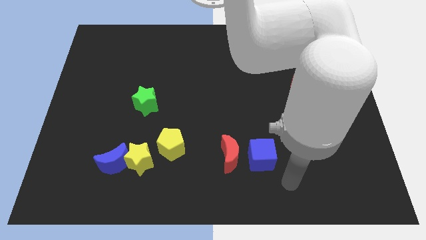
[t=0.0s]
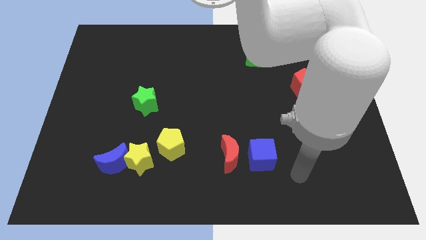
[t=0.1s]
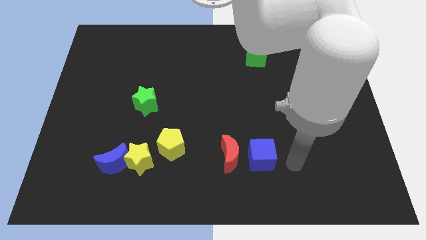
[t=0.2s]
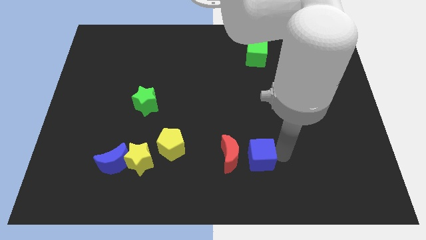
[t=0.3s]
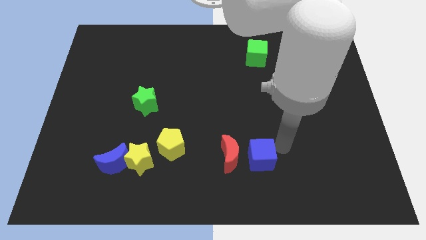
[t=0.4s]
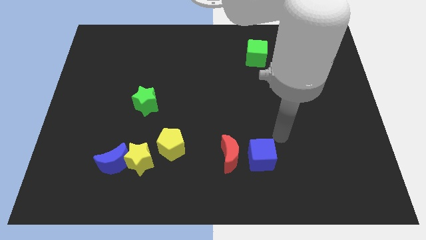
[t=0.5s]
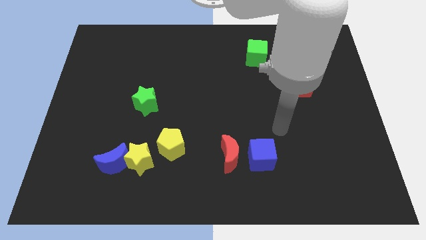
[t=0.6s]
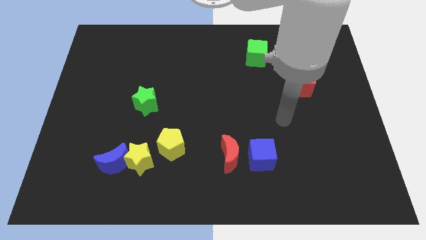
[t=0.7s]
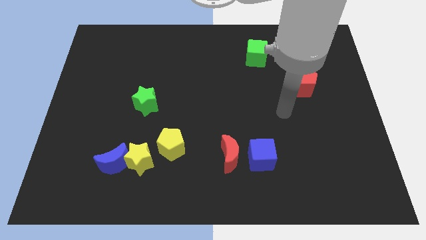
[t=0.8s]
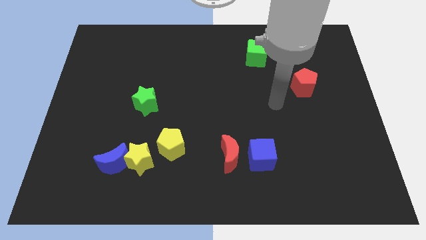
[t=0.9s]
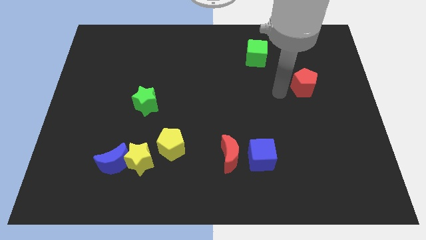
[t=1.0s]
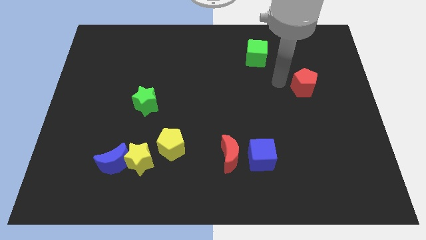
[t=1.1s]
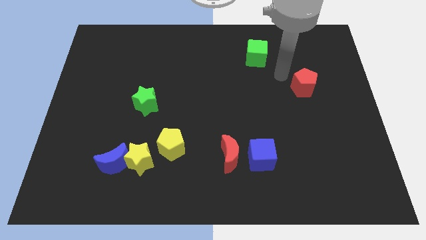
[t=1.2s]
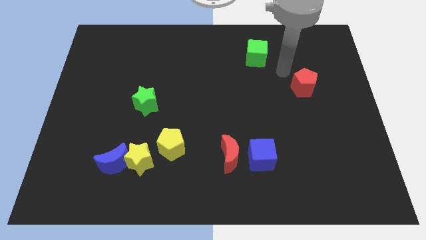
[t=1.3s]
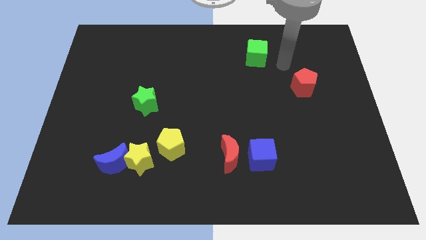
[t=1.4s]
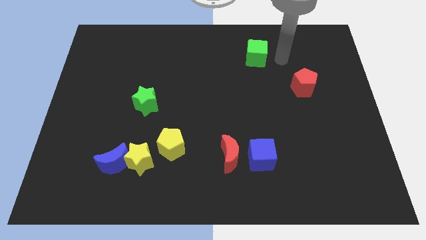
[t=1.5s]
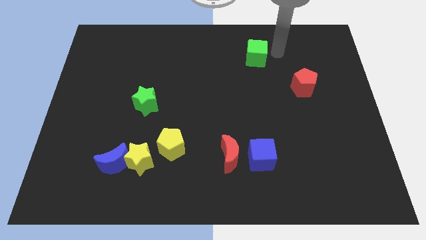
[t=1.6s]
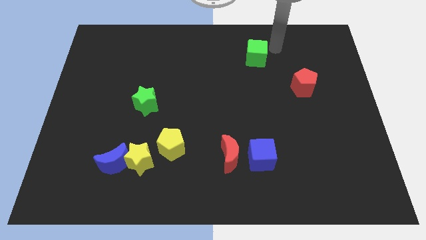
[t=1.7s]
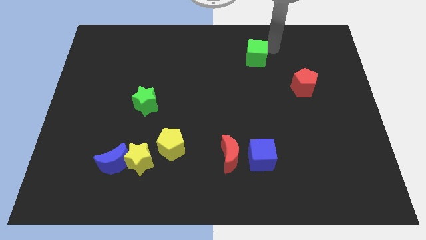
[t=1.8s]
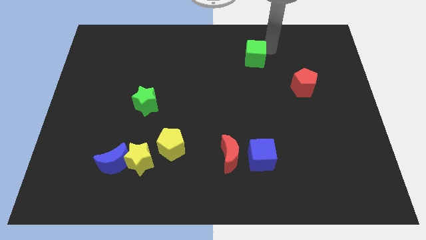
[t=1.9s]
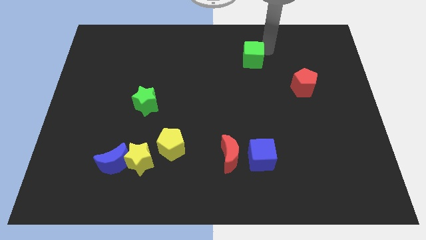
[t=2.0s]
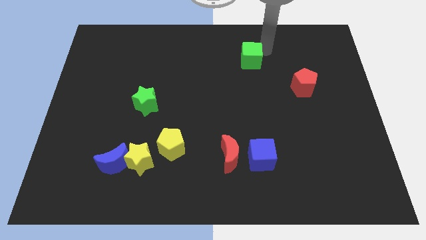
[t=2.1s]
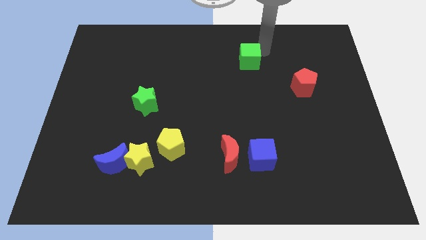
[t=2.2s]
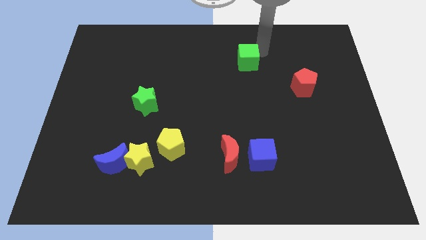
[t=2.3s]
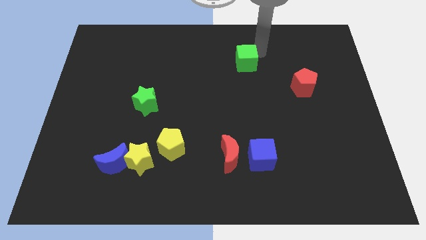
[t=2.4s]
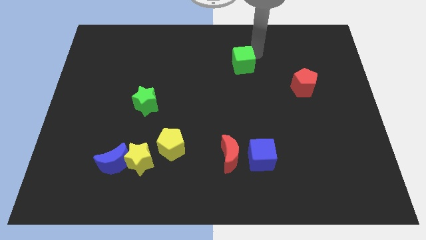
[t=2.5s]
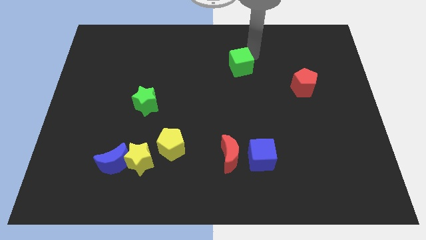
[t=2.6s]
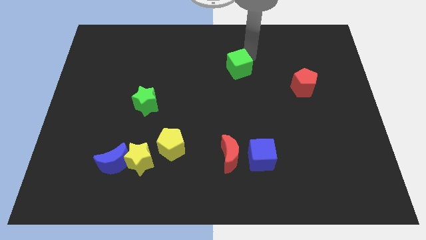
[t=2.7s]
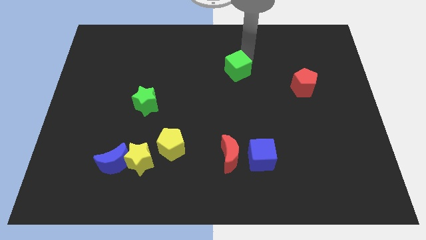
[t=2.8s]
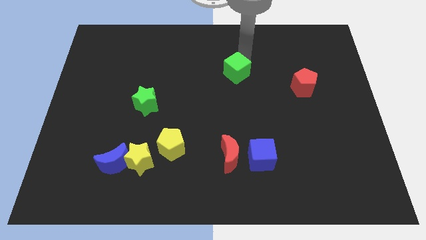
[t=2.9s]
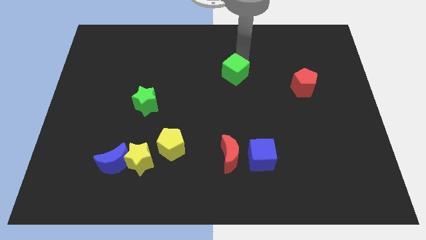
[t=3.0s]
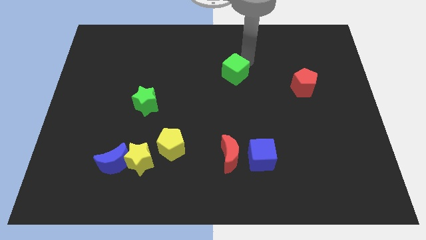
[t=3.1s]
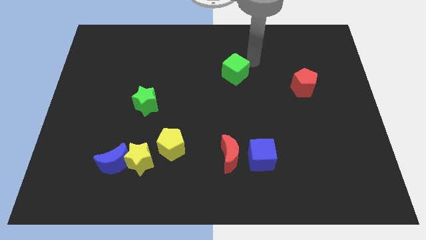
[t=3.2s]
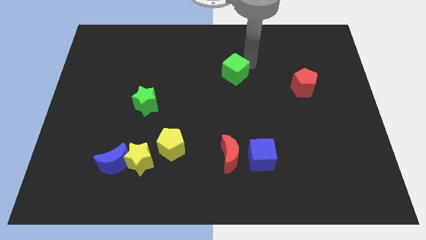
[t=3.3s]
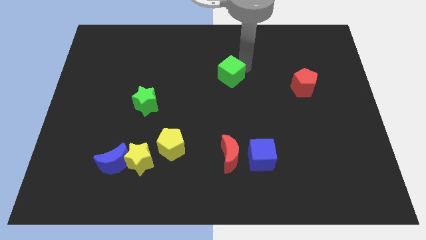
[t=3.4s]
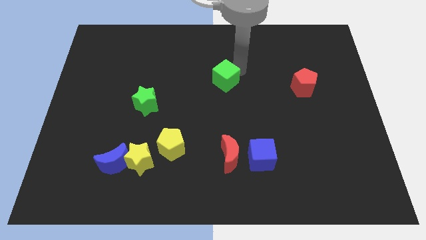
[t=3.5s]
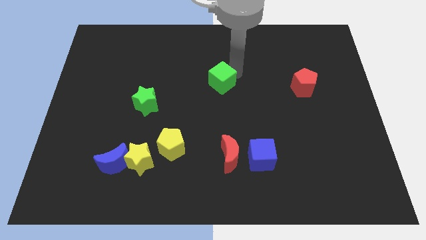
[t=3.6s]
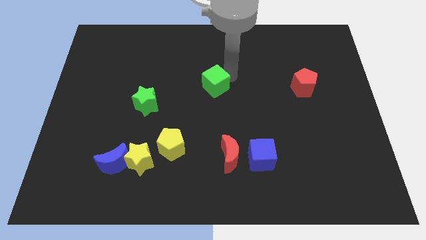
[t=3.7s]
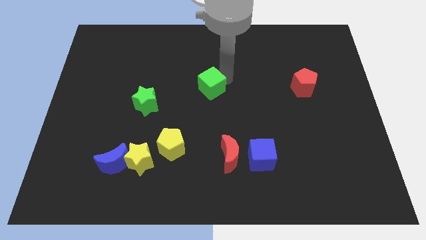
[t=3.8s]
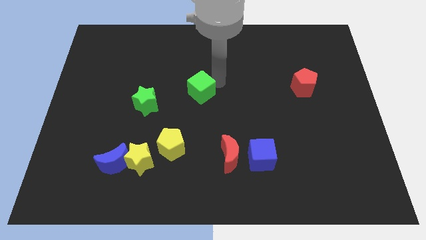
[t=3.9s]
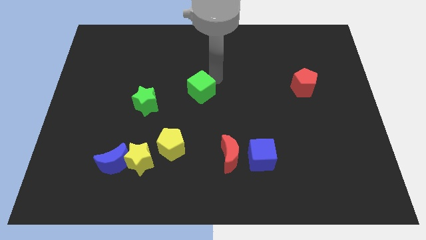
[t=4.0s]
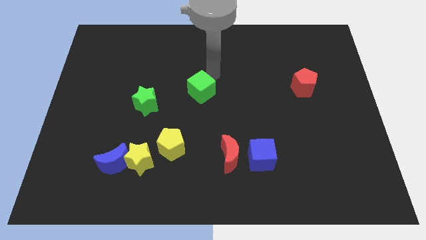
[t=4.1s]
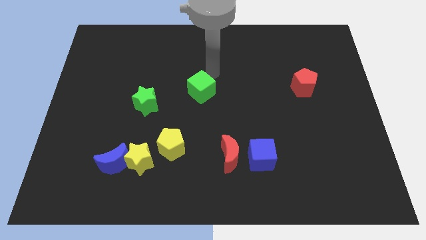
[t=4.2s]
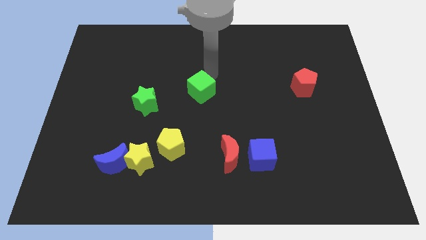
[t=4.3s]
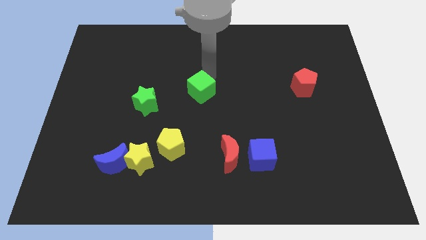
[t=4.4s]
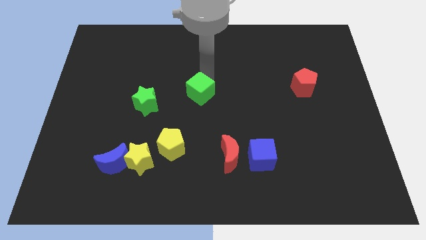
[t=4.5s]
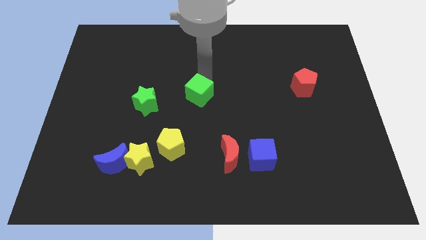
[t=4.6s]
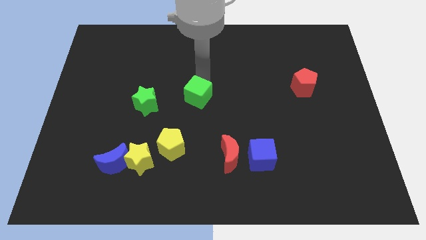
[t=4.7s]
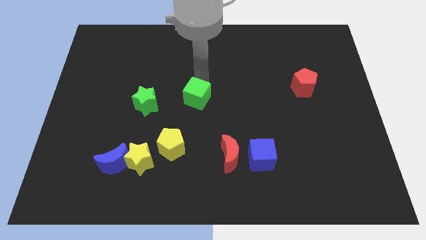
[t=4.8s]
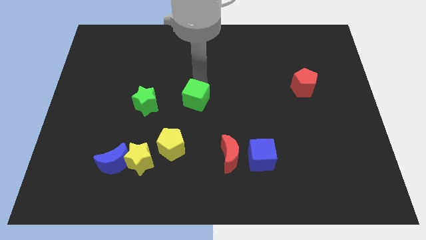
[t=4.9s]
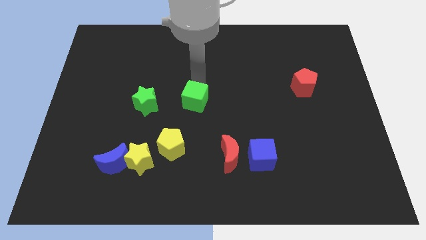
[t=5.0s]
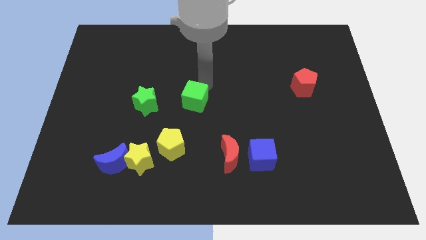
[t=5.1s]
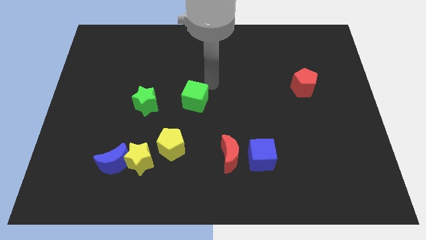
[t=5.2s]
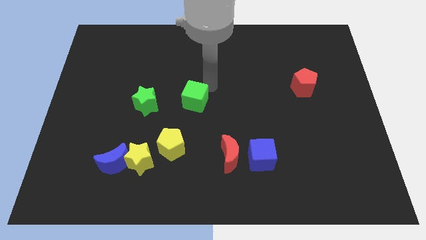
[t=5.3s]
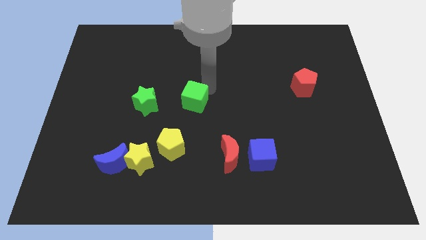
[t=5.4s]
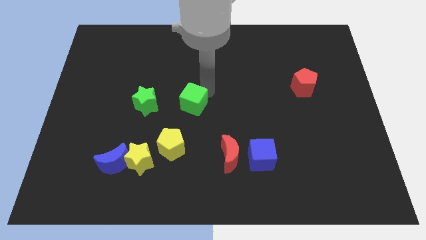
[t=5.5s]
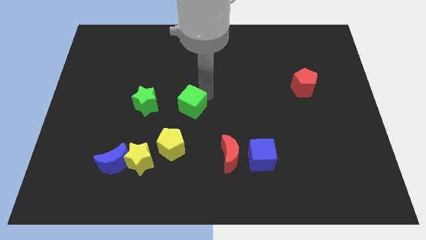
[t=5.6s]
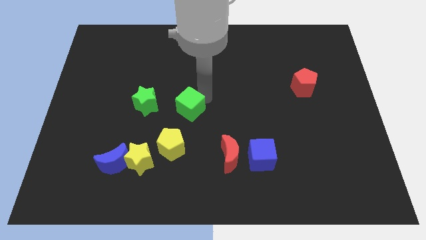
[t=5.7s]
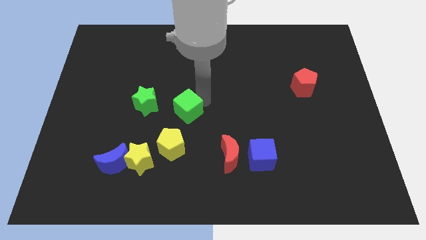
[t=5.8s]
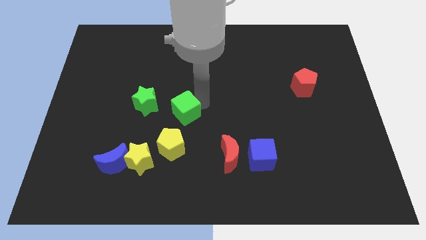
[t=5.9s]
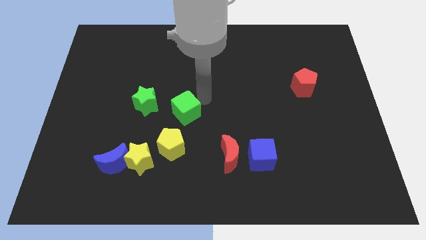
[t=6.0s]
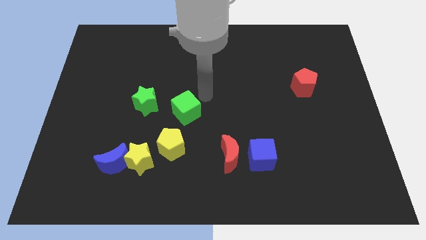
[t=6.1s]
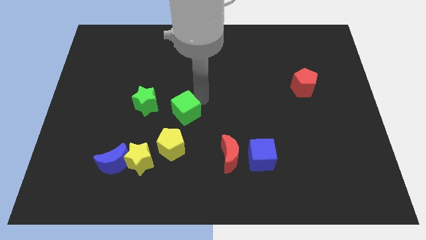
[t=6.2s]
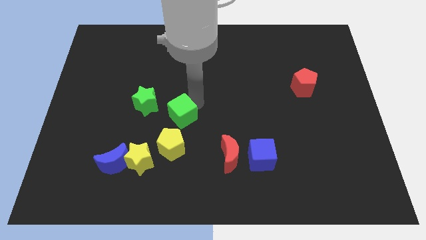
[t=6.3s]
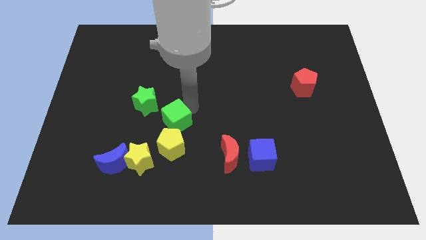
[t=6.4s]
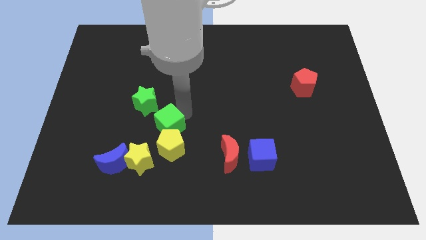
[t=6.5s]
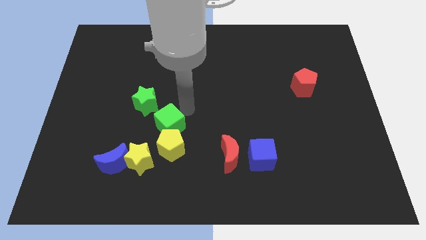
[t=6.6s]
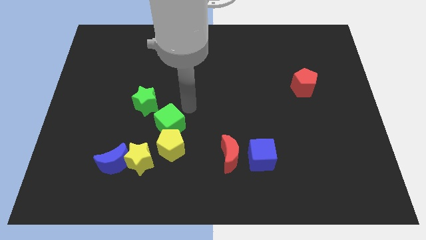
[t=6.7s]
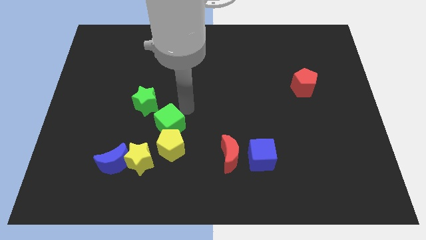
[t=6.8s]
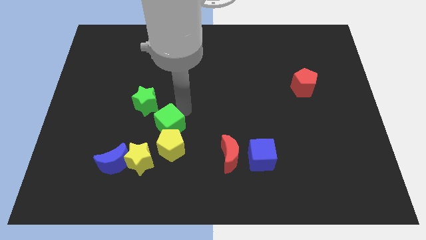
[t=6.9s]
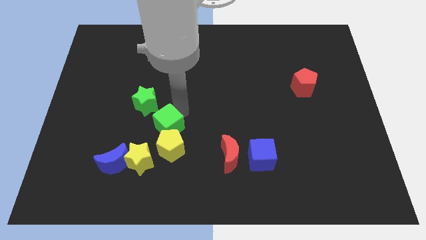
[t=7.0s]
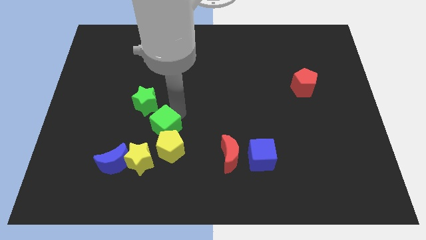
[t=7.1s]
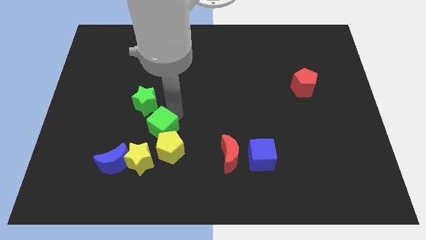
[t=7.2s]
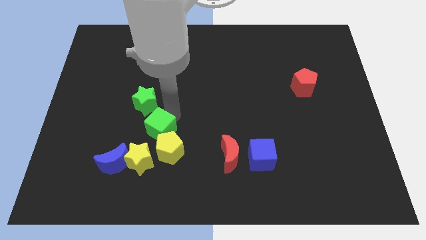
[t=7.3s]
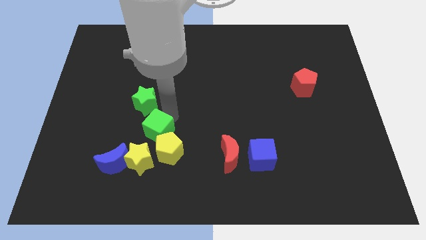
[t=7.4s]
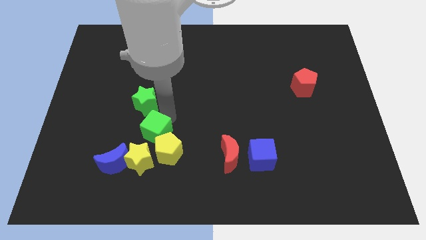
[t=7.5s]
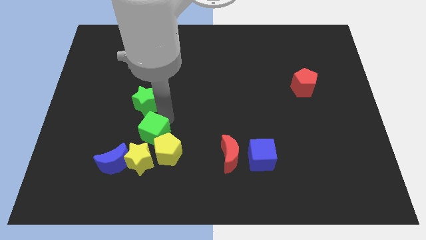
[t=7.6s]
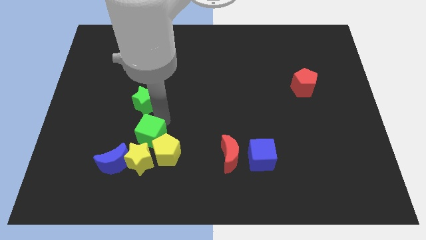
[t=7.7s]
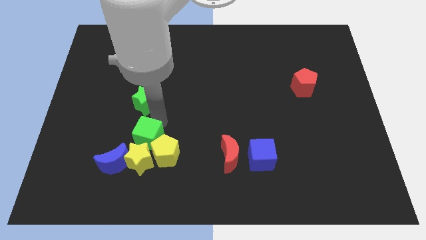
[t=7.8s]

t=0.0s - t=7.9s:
slide the green cube close to the yellow star
